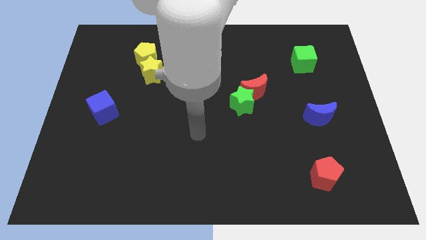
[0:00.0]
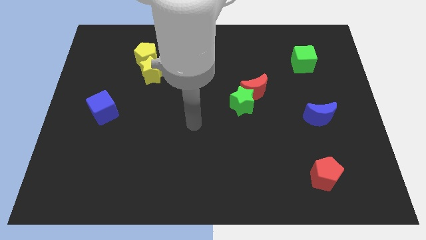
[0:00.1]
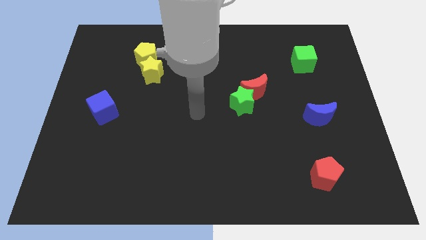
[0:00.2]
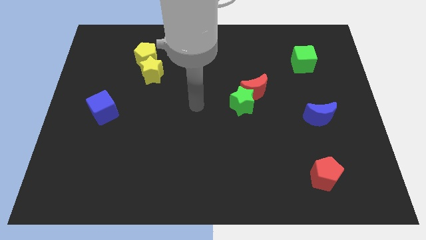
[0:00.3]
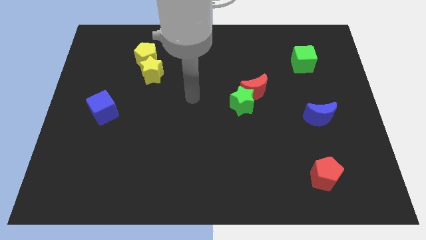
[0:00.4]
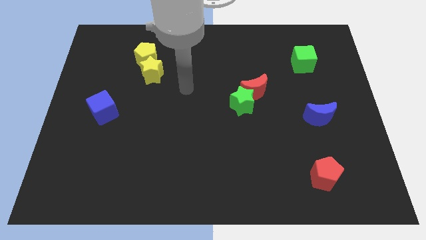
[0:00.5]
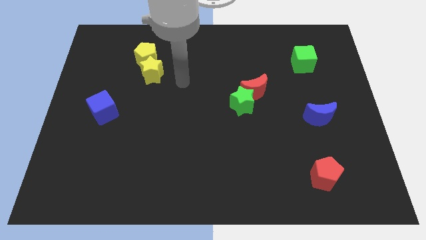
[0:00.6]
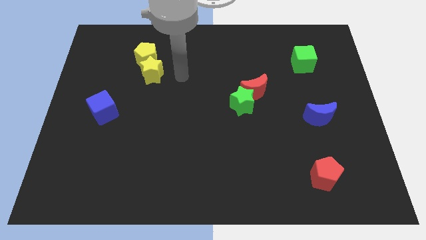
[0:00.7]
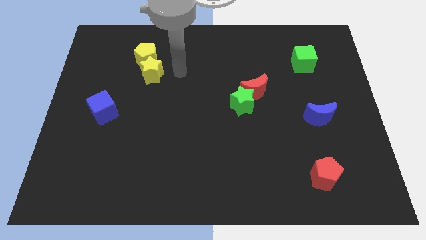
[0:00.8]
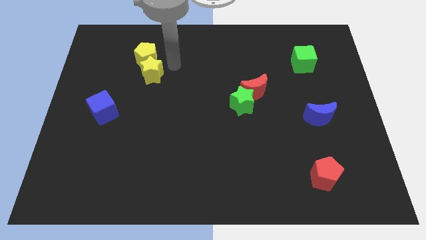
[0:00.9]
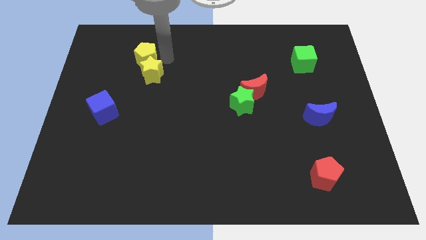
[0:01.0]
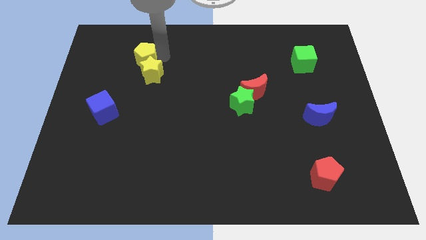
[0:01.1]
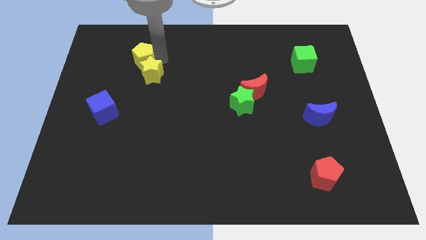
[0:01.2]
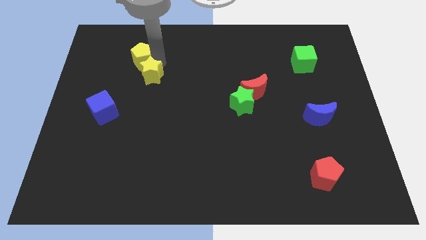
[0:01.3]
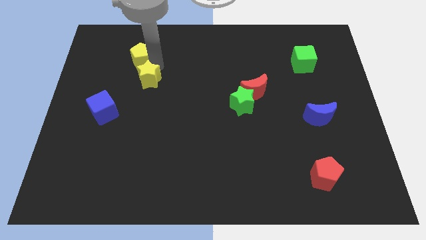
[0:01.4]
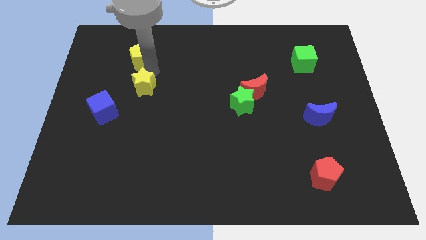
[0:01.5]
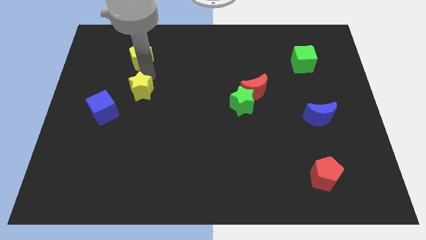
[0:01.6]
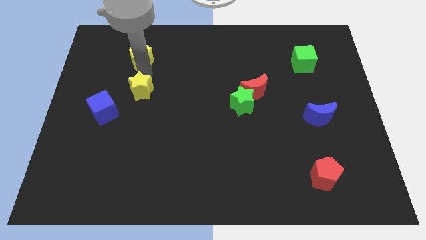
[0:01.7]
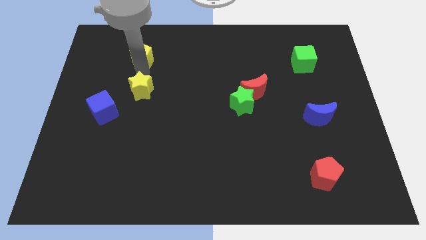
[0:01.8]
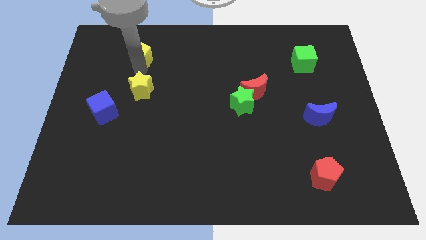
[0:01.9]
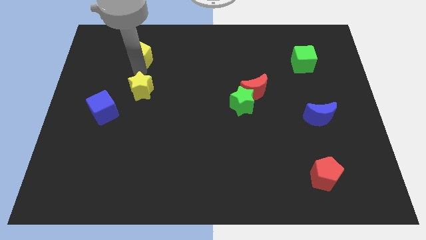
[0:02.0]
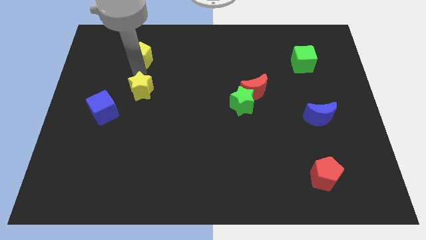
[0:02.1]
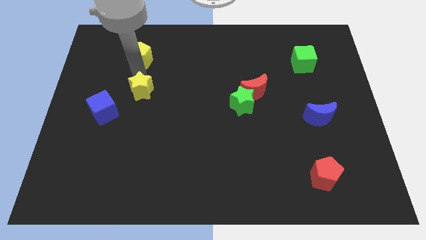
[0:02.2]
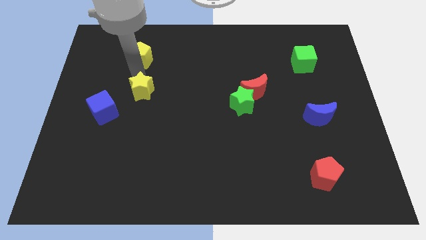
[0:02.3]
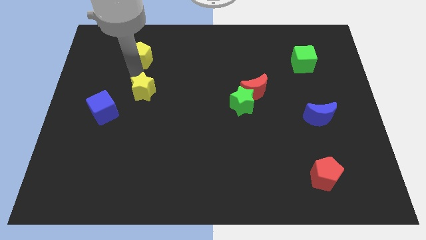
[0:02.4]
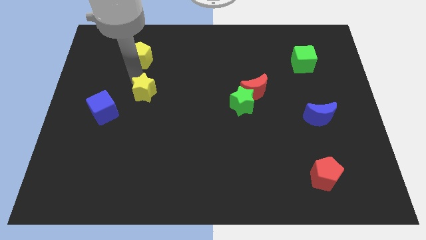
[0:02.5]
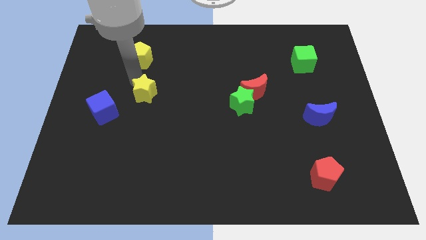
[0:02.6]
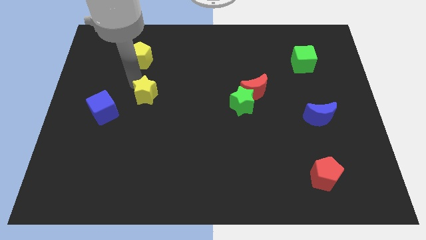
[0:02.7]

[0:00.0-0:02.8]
move the yellow star downwards slightly

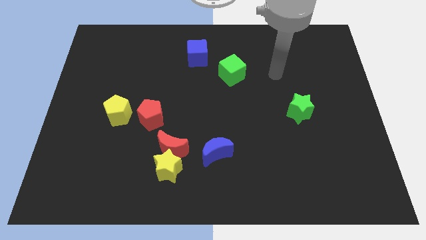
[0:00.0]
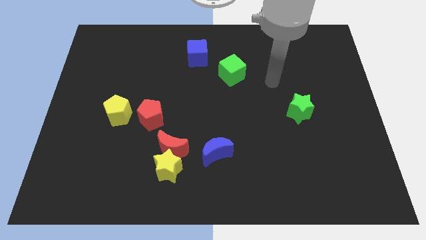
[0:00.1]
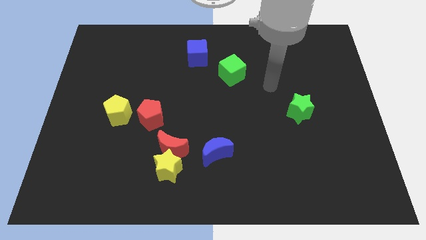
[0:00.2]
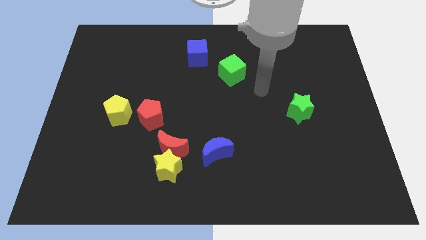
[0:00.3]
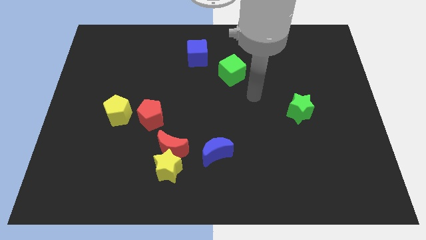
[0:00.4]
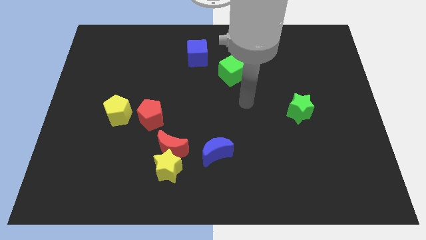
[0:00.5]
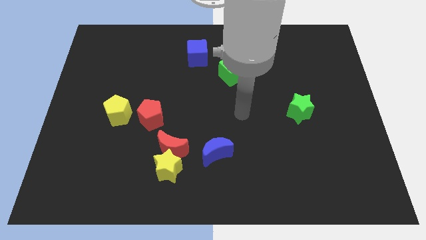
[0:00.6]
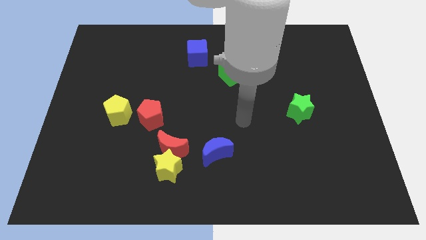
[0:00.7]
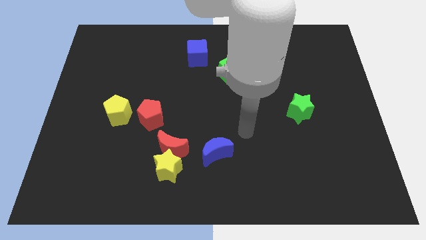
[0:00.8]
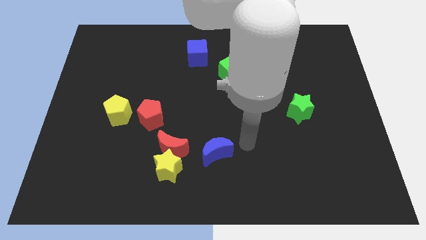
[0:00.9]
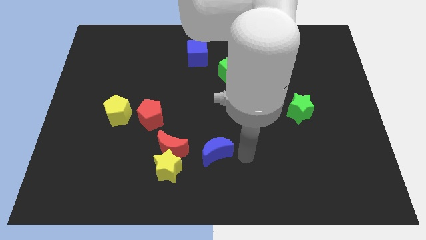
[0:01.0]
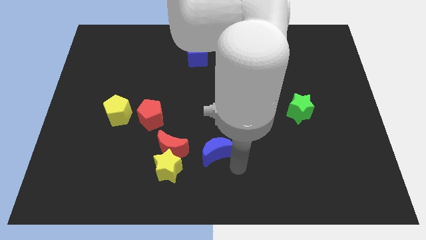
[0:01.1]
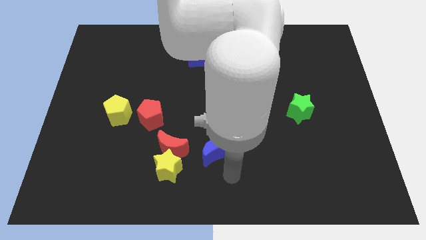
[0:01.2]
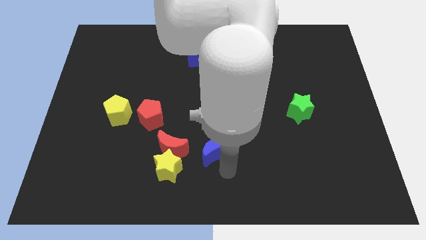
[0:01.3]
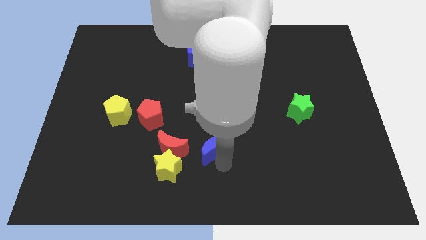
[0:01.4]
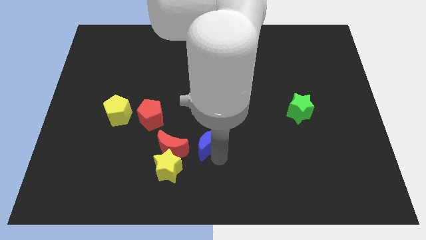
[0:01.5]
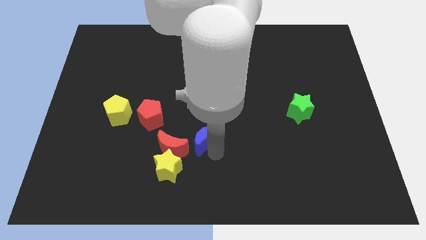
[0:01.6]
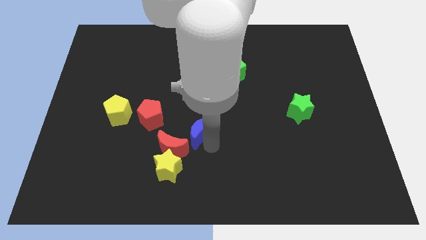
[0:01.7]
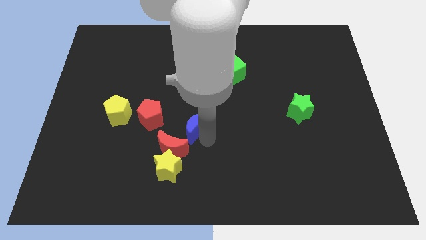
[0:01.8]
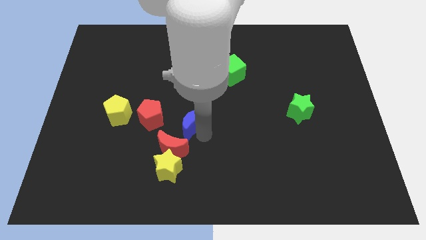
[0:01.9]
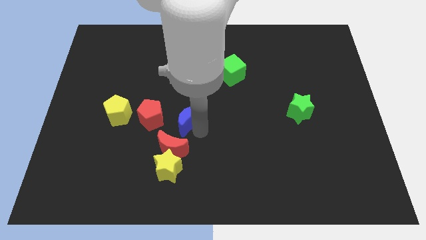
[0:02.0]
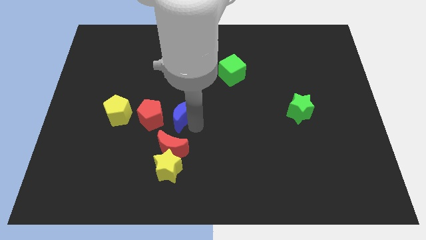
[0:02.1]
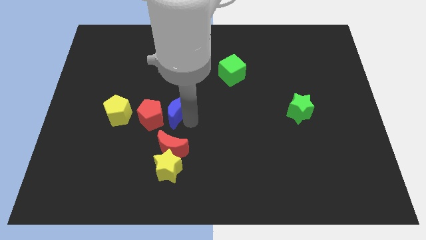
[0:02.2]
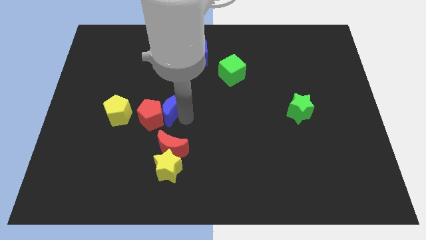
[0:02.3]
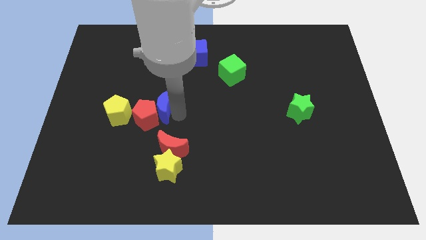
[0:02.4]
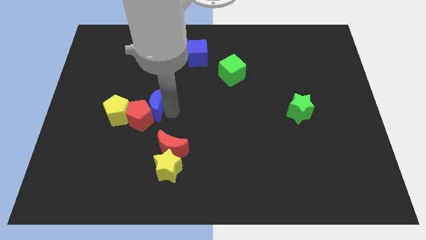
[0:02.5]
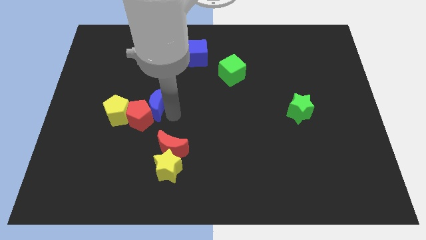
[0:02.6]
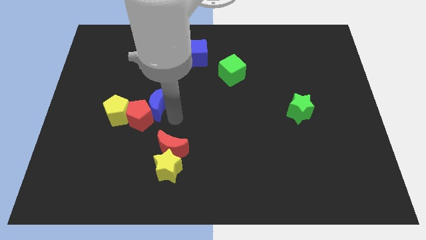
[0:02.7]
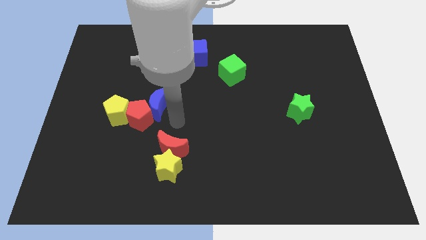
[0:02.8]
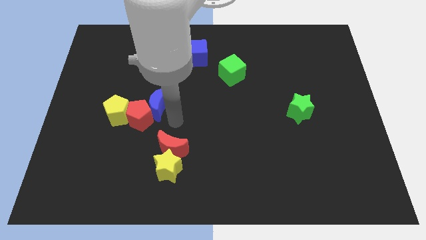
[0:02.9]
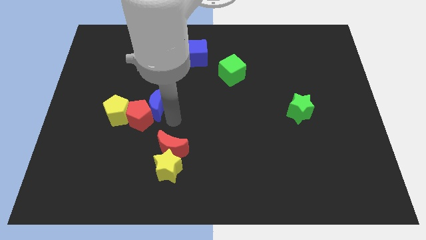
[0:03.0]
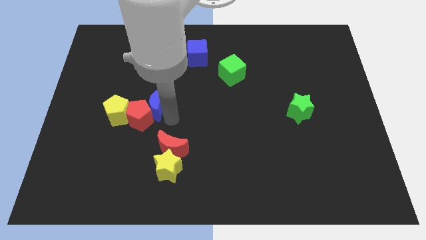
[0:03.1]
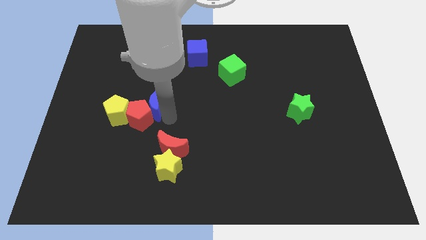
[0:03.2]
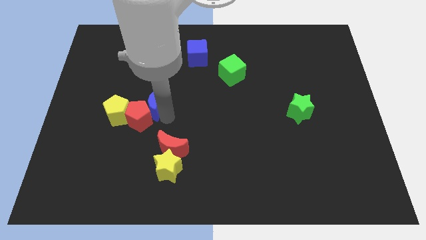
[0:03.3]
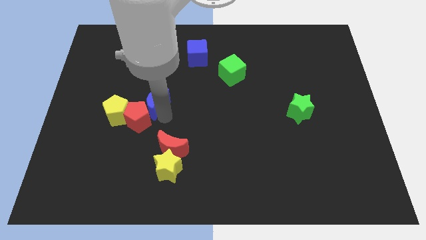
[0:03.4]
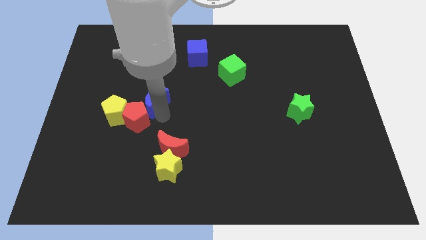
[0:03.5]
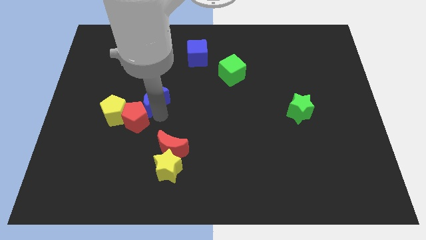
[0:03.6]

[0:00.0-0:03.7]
move the blue moon diagonally up and to the left

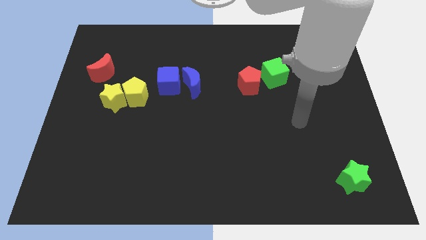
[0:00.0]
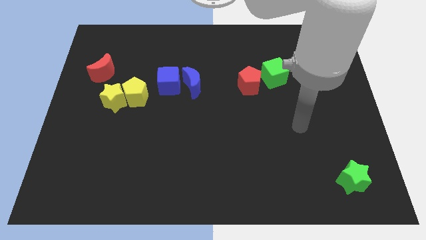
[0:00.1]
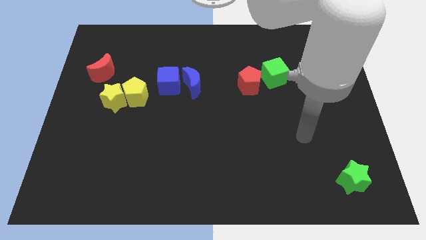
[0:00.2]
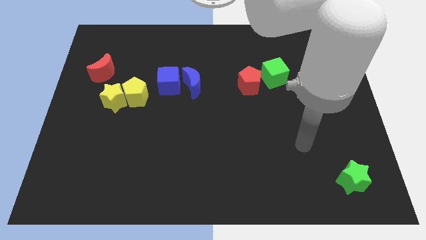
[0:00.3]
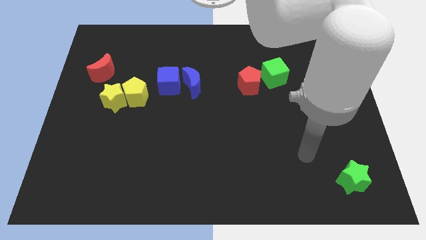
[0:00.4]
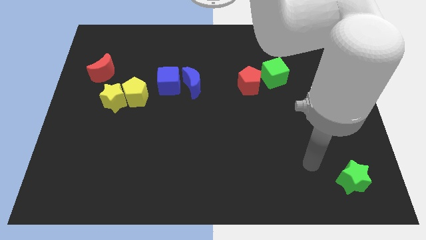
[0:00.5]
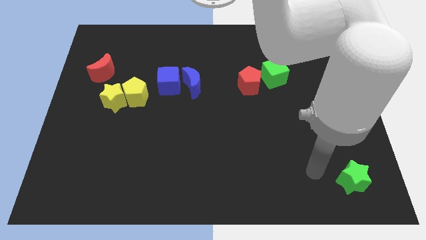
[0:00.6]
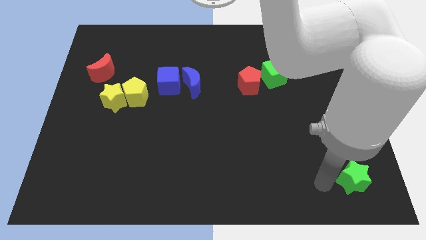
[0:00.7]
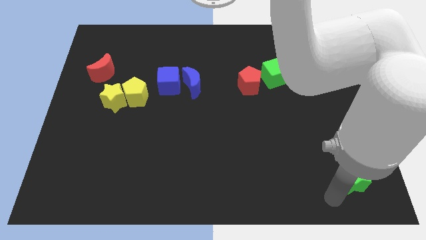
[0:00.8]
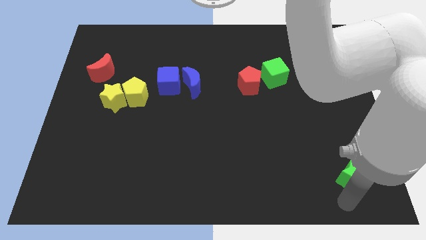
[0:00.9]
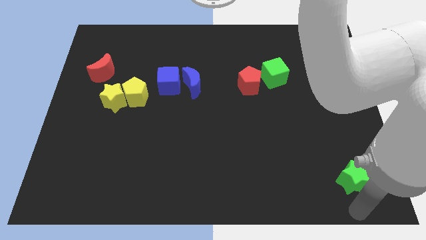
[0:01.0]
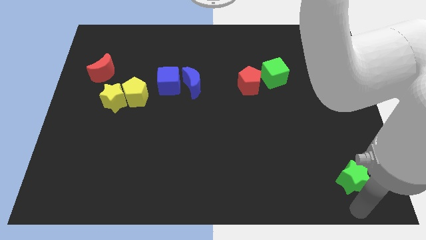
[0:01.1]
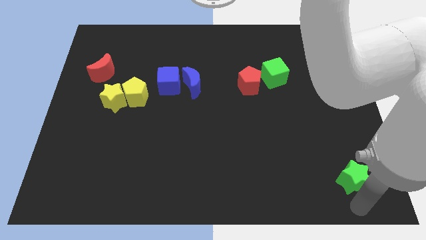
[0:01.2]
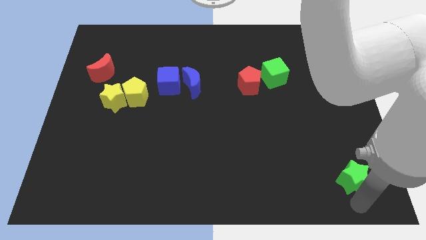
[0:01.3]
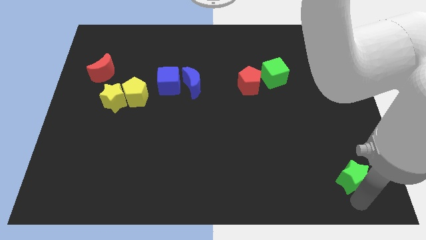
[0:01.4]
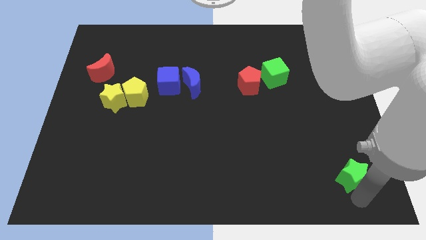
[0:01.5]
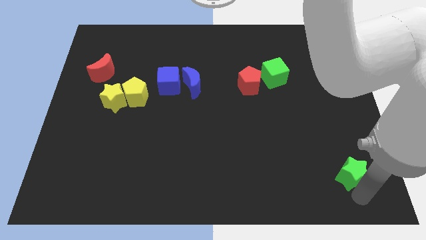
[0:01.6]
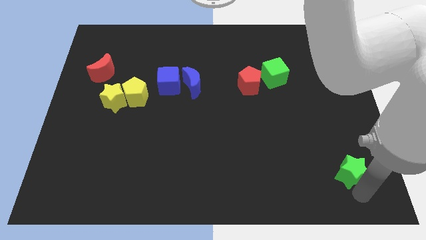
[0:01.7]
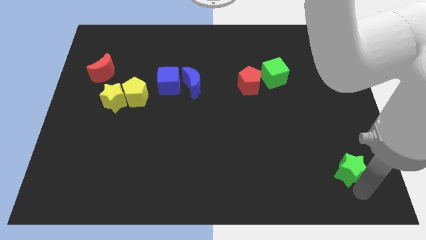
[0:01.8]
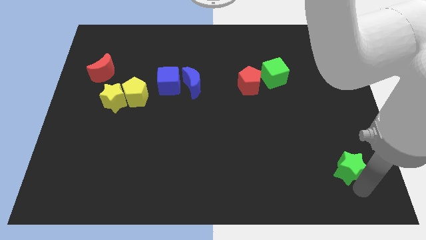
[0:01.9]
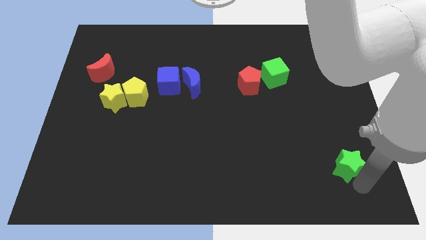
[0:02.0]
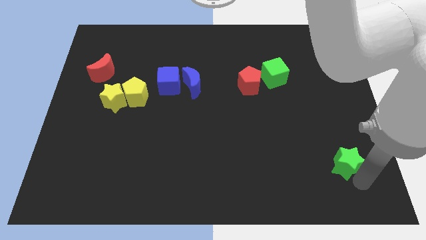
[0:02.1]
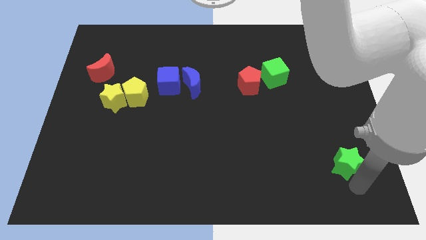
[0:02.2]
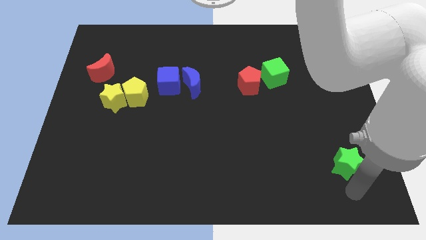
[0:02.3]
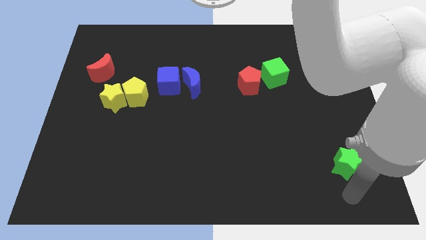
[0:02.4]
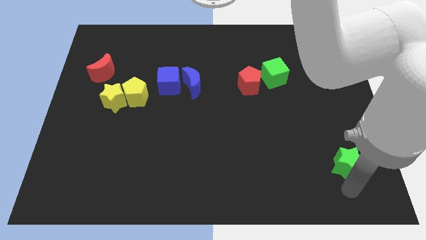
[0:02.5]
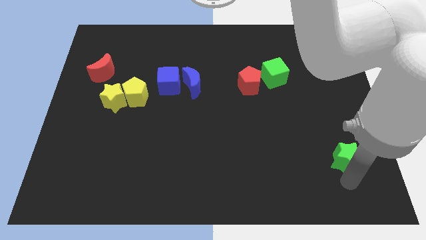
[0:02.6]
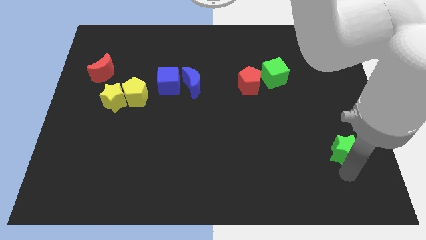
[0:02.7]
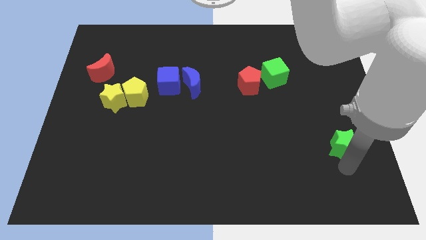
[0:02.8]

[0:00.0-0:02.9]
slightly slide the green star up
